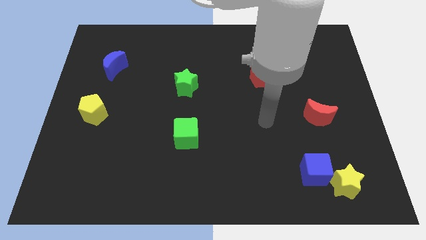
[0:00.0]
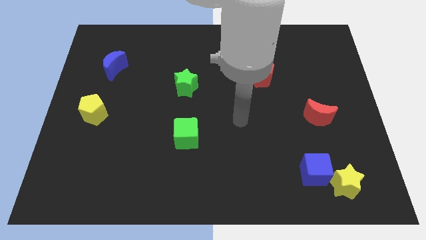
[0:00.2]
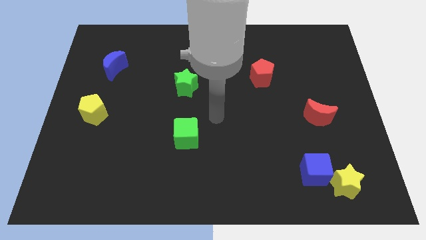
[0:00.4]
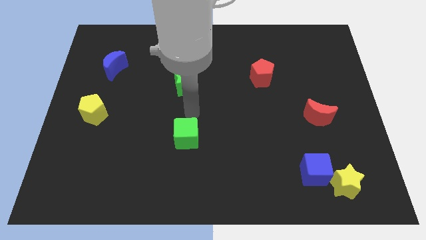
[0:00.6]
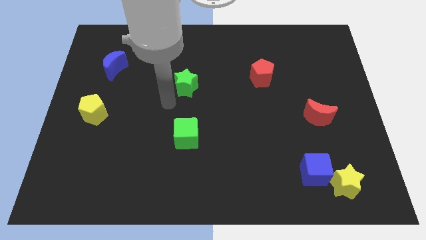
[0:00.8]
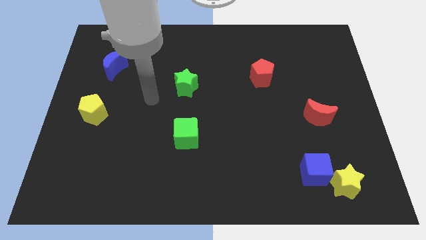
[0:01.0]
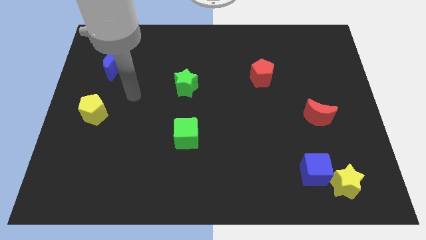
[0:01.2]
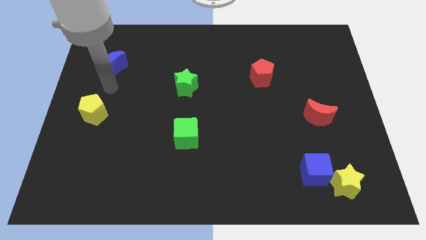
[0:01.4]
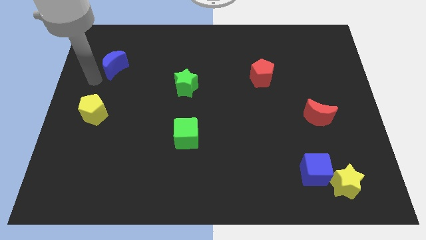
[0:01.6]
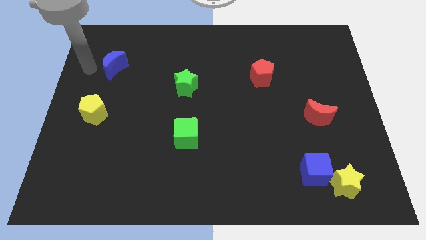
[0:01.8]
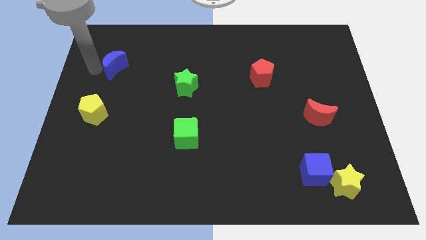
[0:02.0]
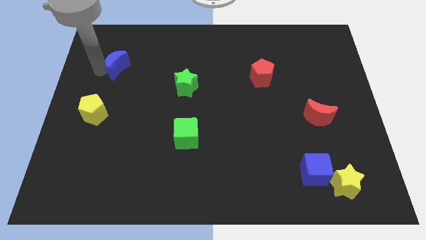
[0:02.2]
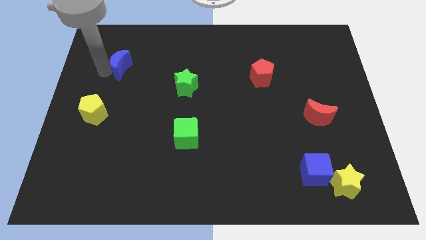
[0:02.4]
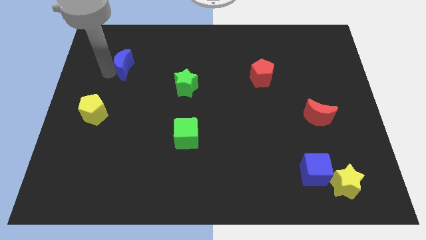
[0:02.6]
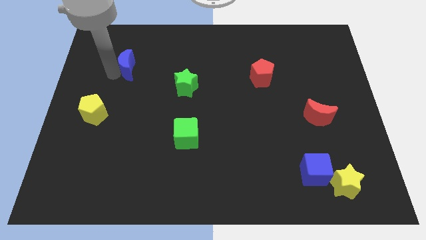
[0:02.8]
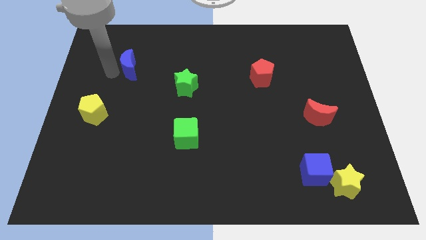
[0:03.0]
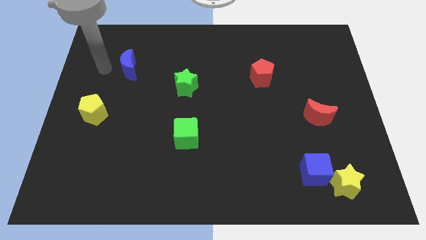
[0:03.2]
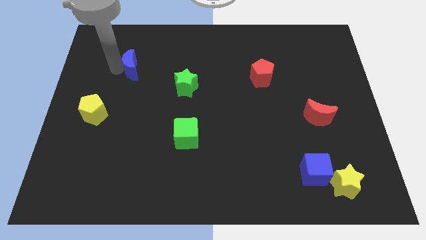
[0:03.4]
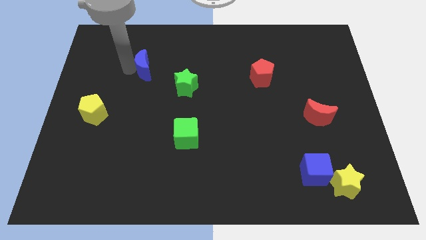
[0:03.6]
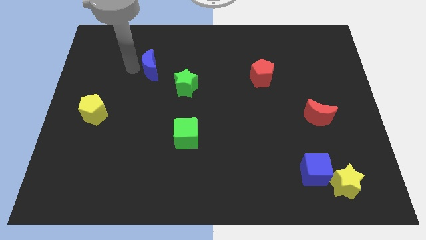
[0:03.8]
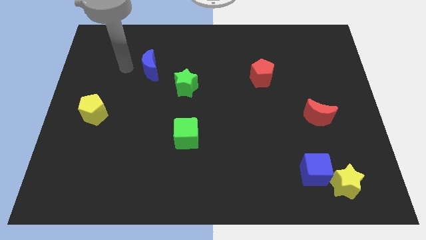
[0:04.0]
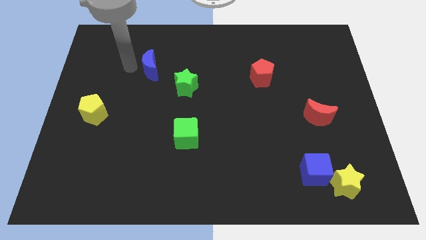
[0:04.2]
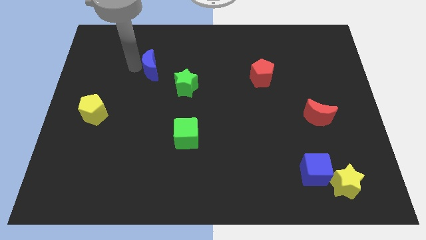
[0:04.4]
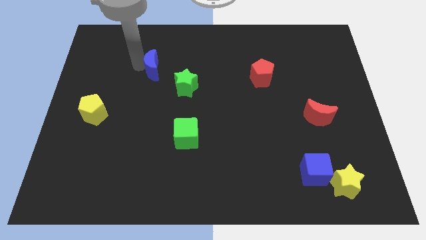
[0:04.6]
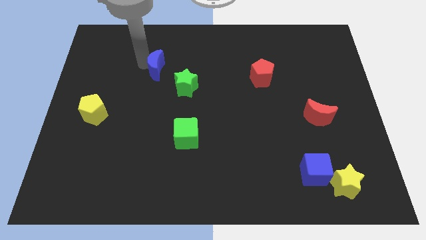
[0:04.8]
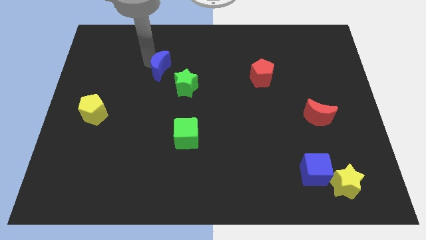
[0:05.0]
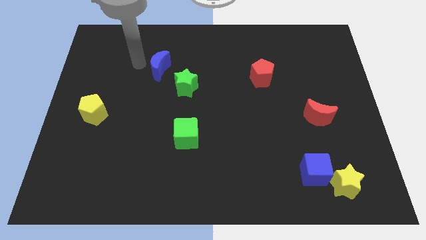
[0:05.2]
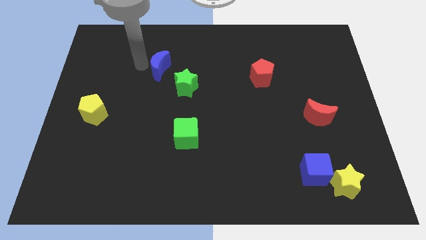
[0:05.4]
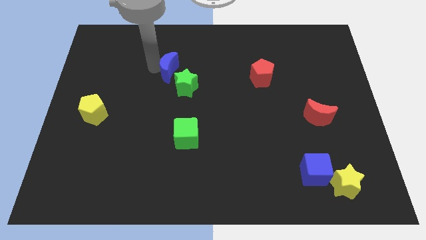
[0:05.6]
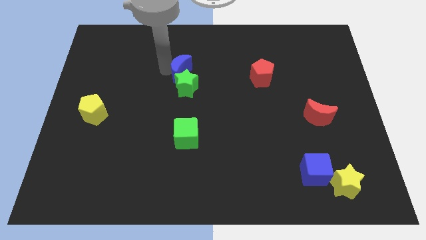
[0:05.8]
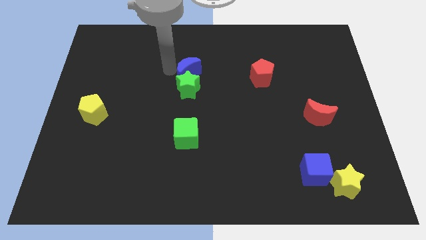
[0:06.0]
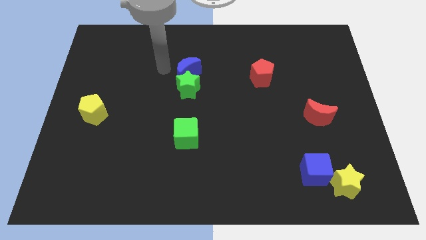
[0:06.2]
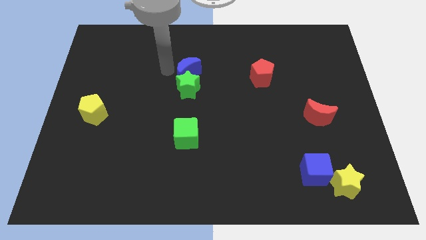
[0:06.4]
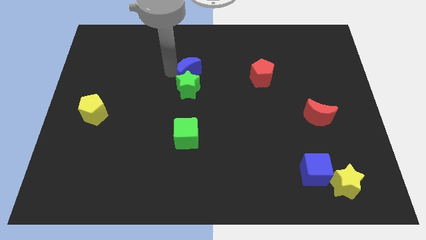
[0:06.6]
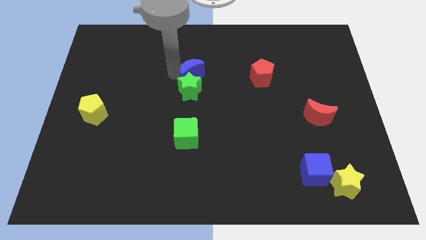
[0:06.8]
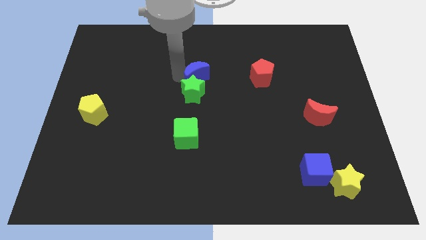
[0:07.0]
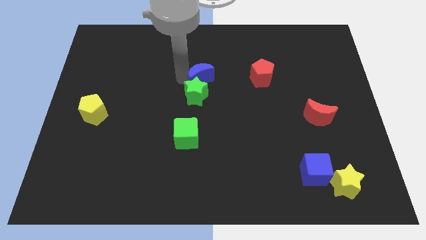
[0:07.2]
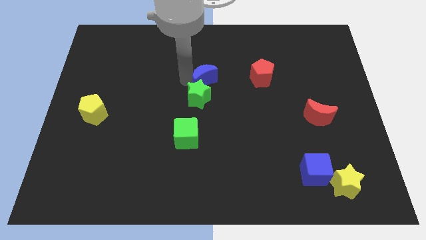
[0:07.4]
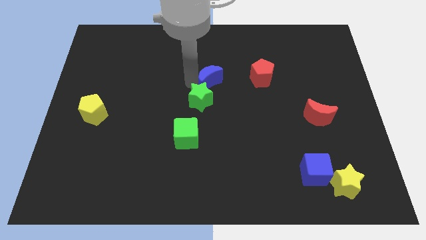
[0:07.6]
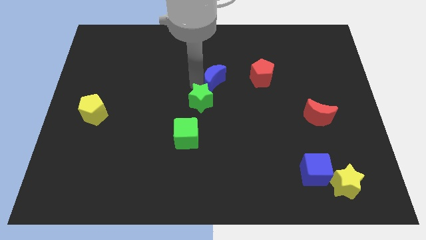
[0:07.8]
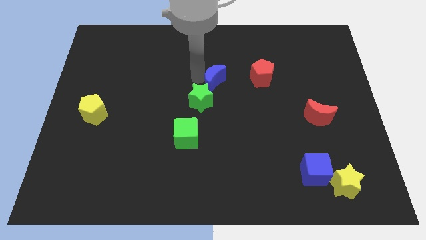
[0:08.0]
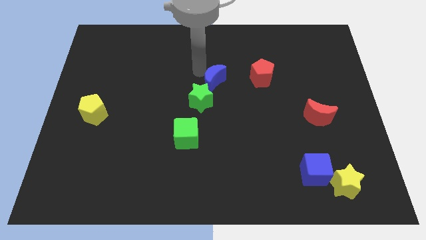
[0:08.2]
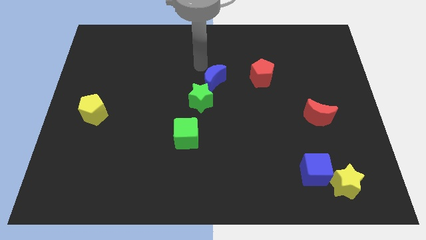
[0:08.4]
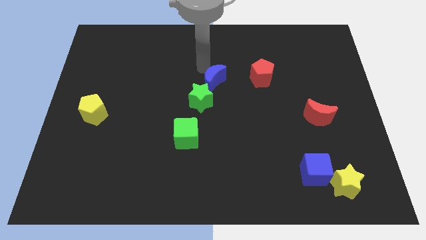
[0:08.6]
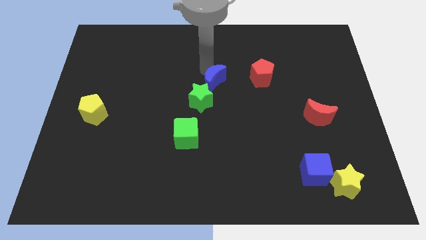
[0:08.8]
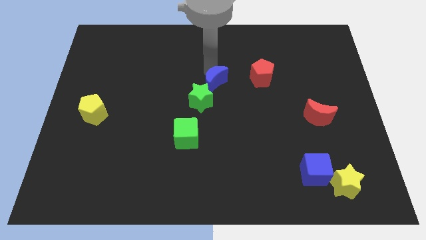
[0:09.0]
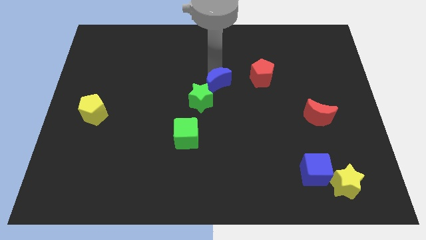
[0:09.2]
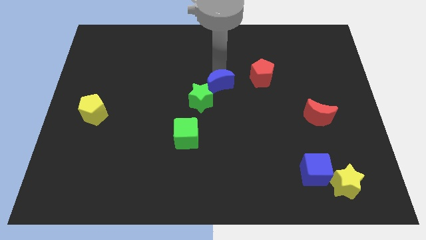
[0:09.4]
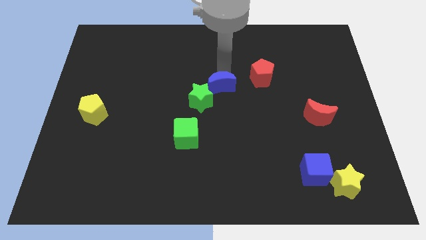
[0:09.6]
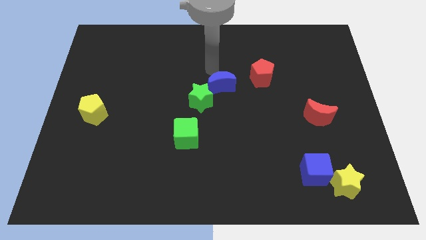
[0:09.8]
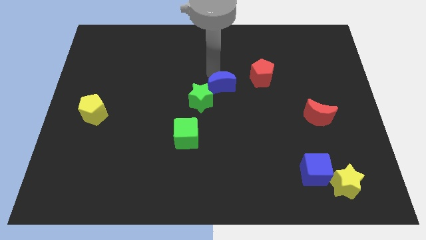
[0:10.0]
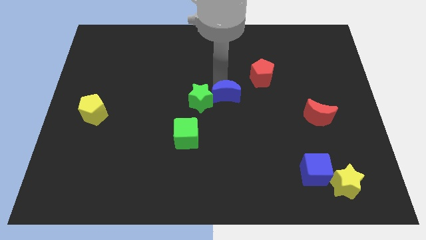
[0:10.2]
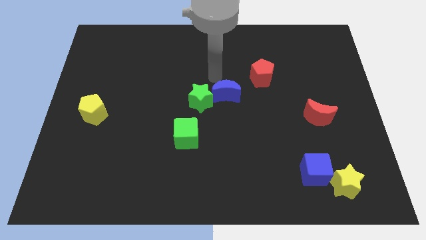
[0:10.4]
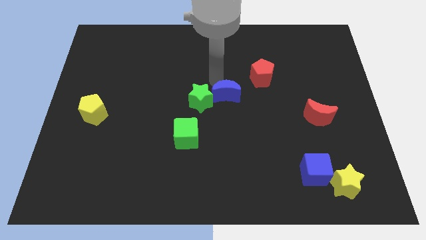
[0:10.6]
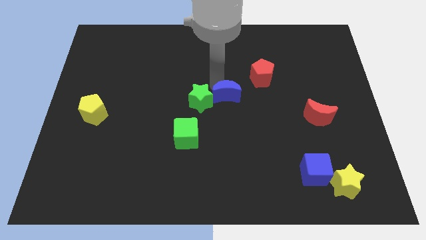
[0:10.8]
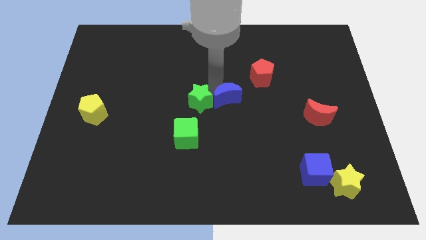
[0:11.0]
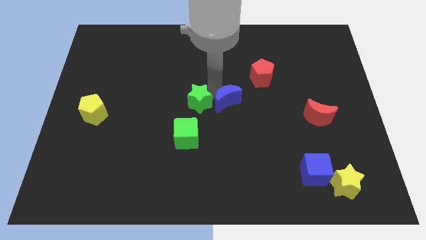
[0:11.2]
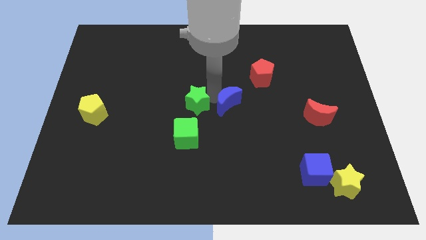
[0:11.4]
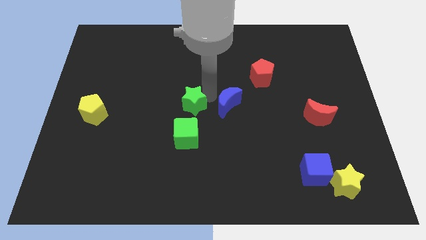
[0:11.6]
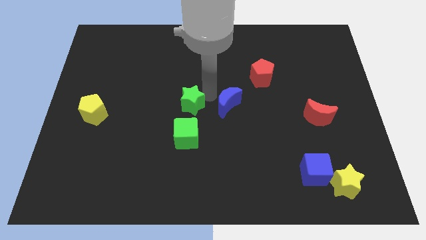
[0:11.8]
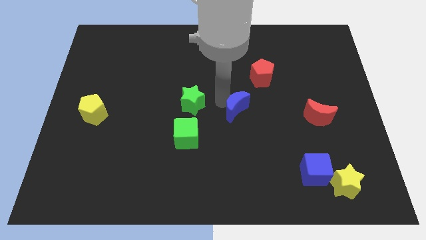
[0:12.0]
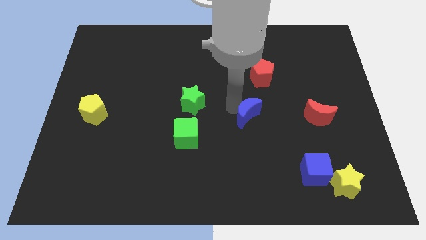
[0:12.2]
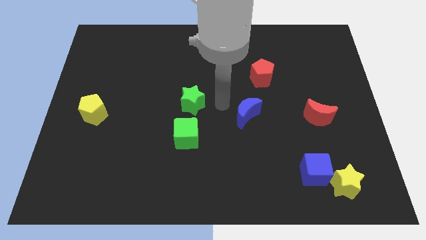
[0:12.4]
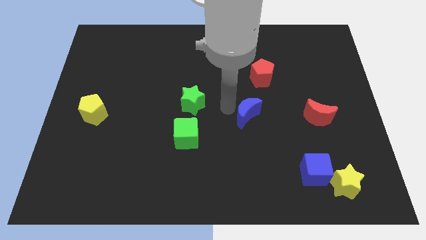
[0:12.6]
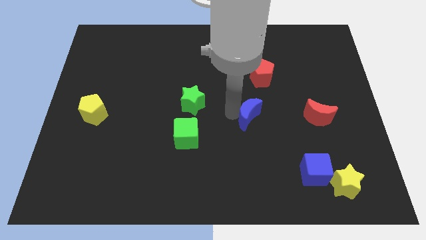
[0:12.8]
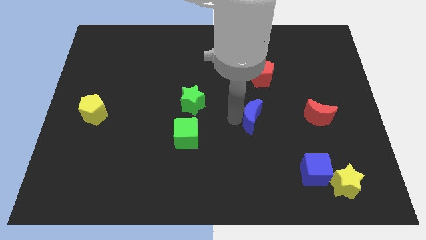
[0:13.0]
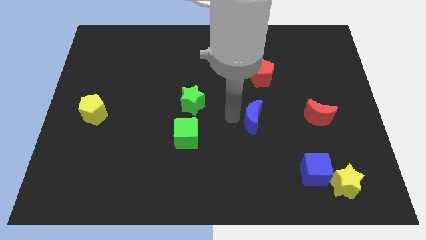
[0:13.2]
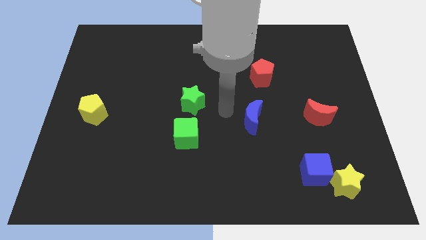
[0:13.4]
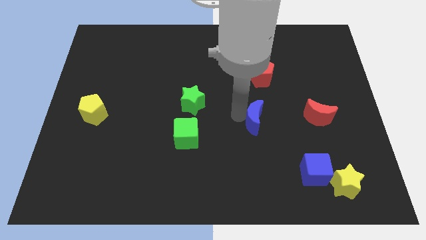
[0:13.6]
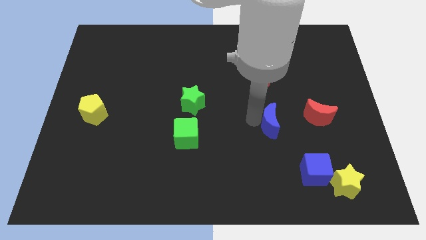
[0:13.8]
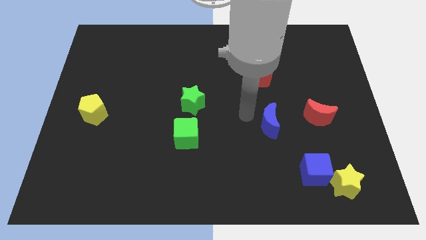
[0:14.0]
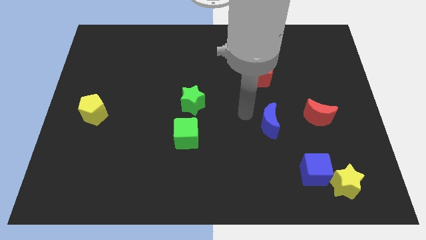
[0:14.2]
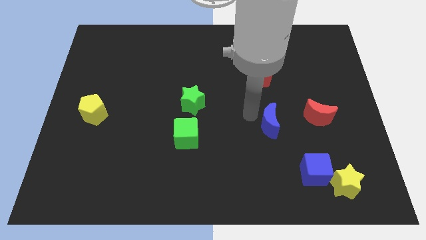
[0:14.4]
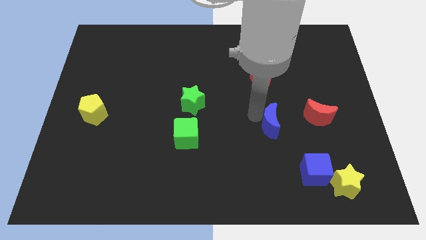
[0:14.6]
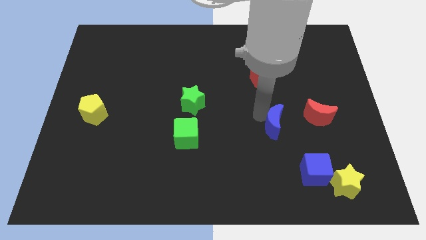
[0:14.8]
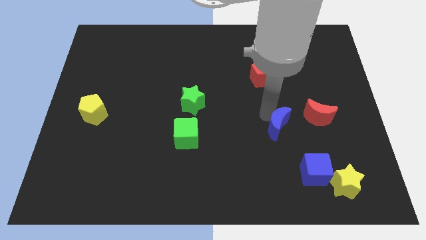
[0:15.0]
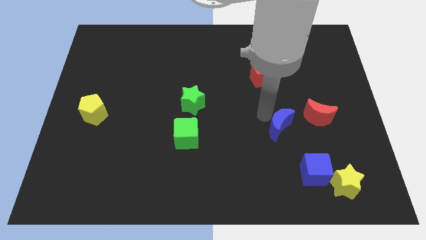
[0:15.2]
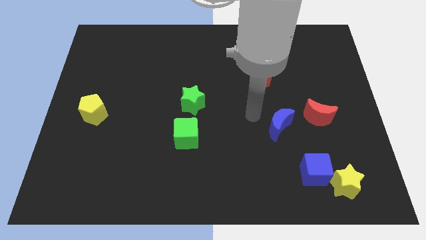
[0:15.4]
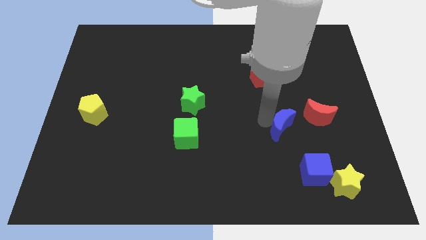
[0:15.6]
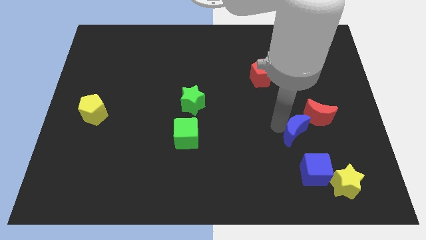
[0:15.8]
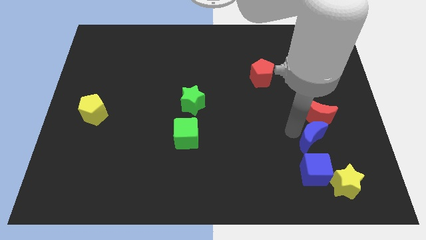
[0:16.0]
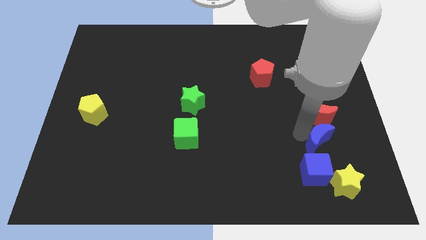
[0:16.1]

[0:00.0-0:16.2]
move the blue moon diagonally up and to the right of the blue cube
